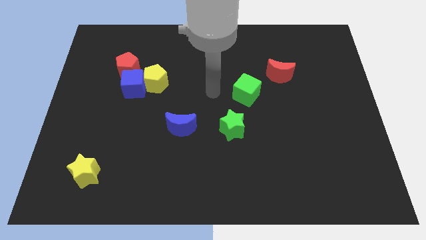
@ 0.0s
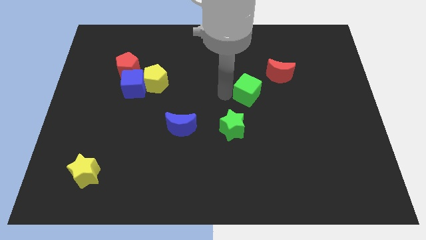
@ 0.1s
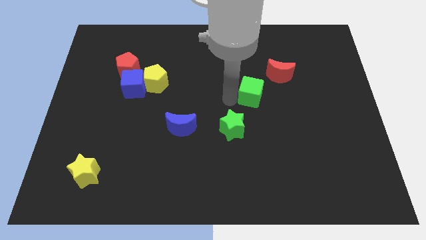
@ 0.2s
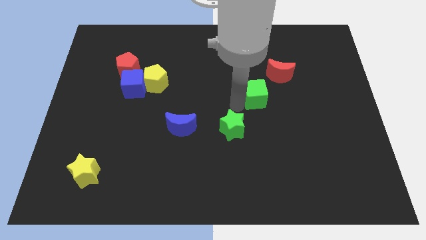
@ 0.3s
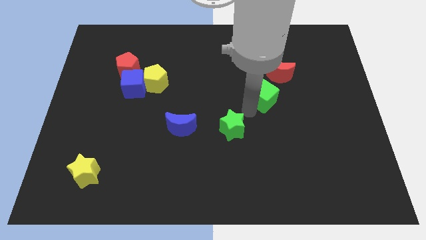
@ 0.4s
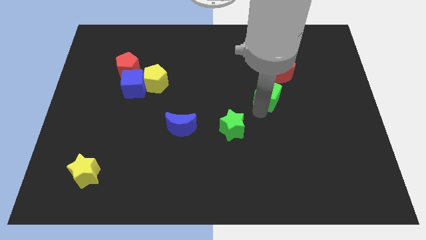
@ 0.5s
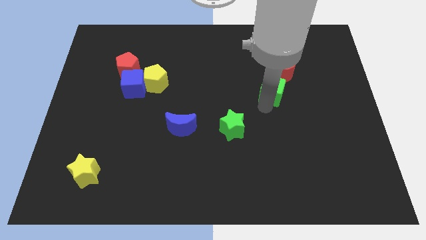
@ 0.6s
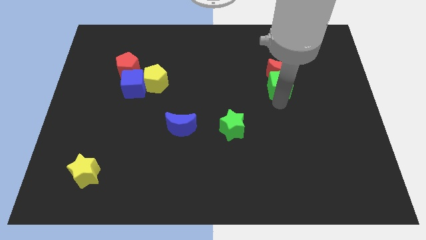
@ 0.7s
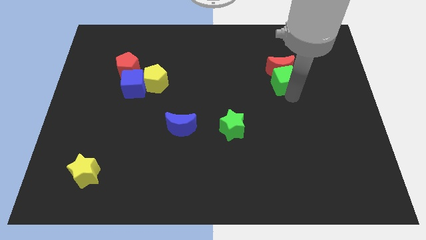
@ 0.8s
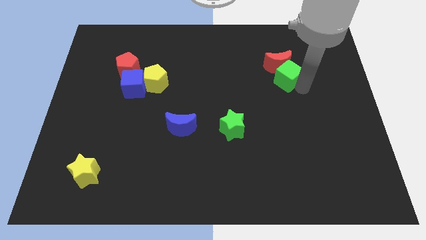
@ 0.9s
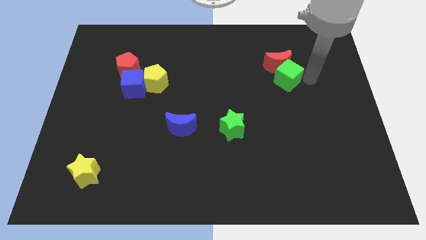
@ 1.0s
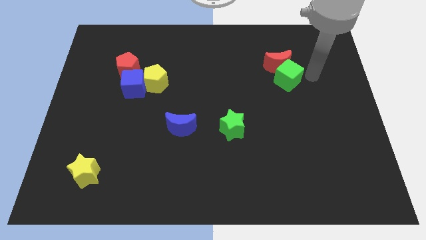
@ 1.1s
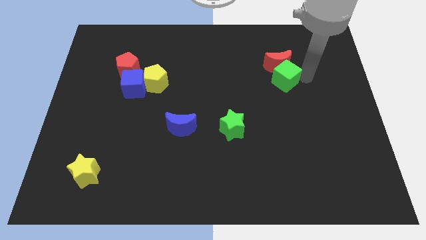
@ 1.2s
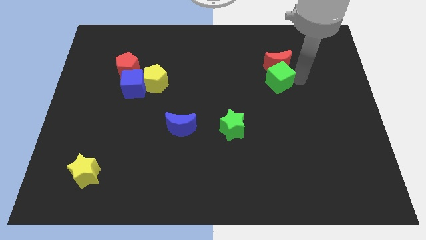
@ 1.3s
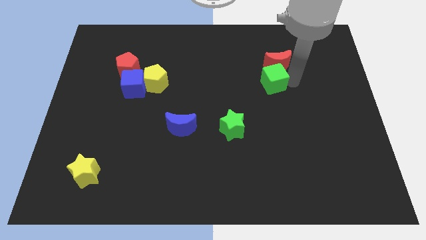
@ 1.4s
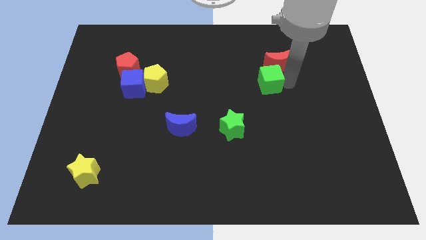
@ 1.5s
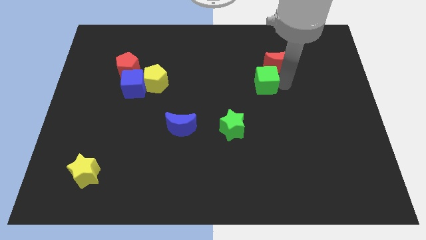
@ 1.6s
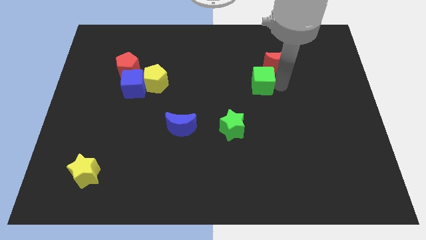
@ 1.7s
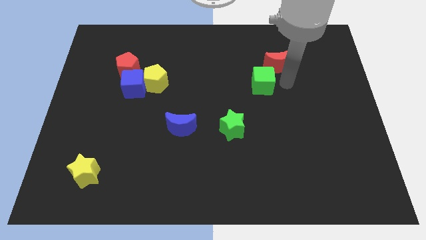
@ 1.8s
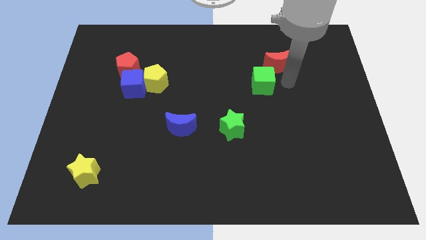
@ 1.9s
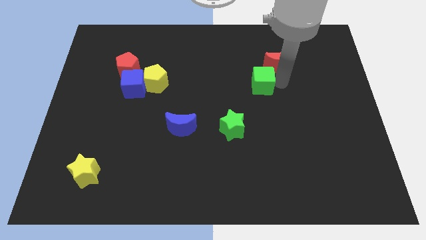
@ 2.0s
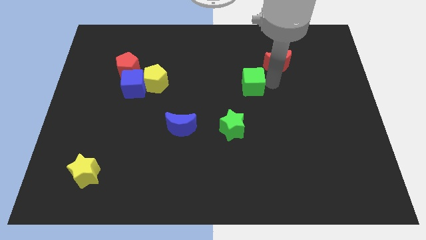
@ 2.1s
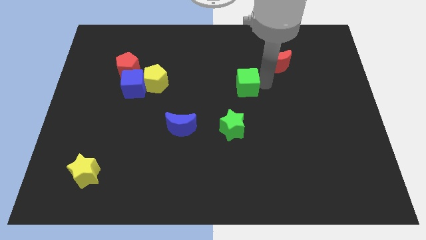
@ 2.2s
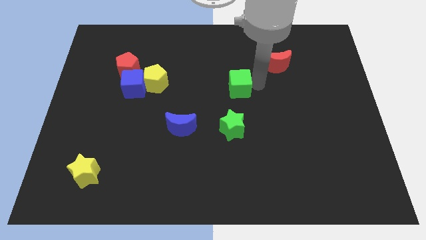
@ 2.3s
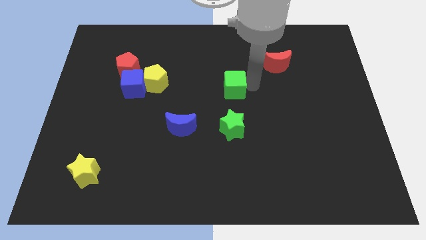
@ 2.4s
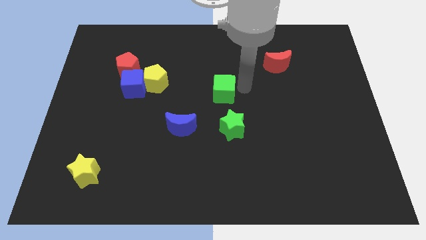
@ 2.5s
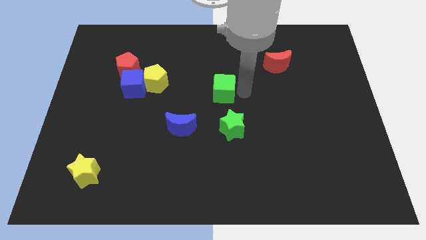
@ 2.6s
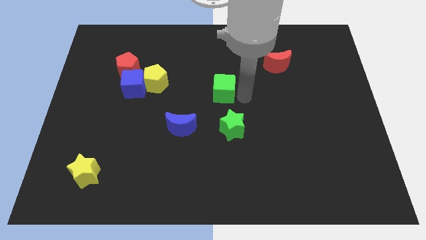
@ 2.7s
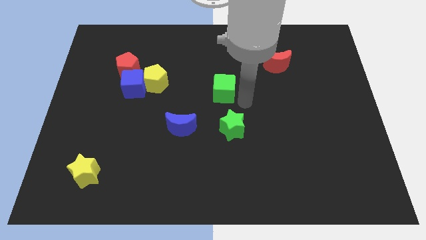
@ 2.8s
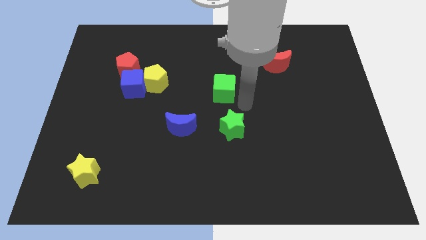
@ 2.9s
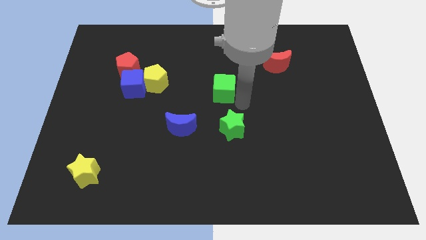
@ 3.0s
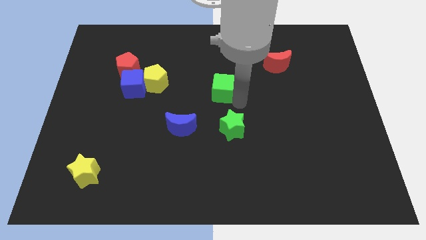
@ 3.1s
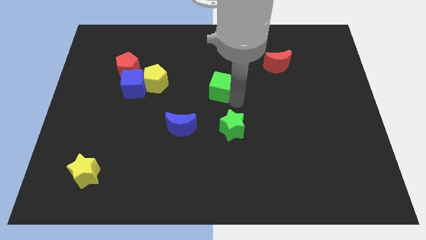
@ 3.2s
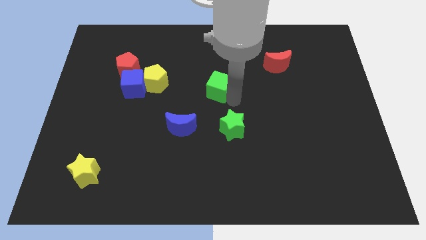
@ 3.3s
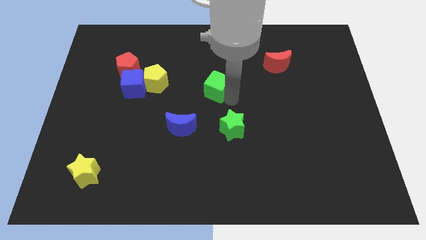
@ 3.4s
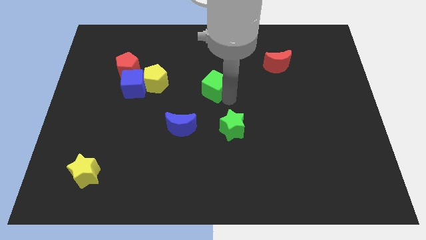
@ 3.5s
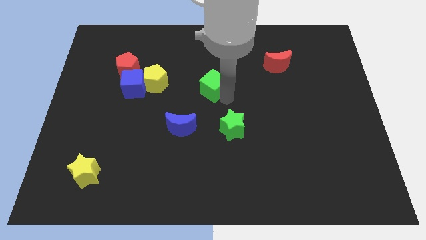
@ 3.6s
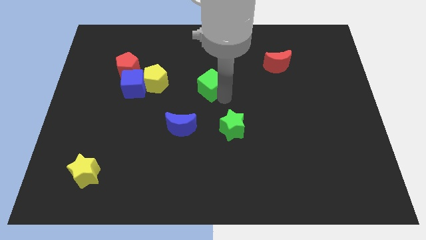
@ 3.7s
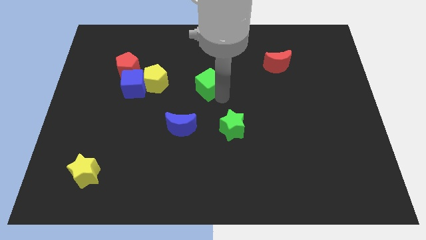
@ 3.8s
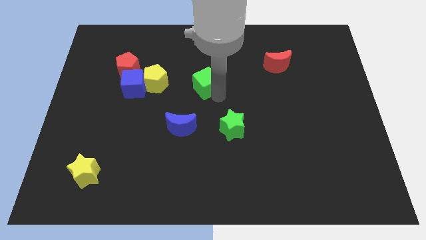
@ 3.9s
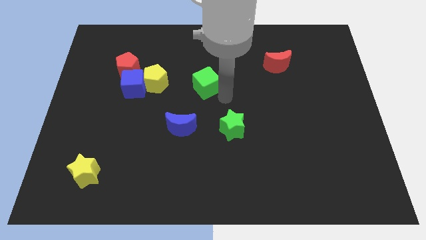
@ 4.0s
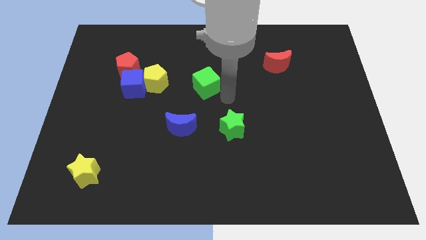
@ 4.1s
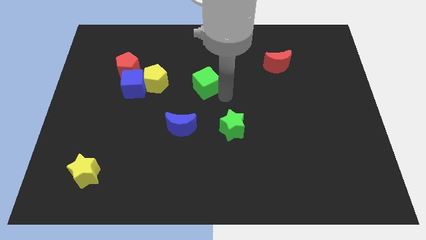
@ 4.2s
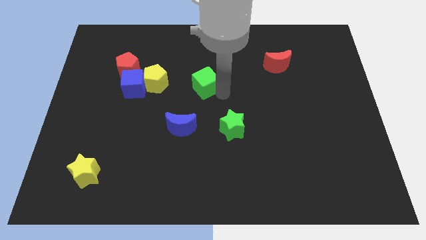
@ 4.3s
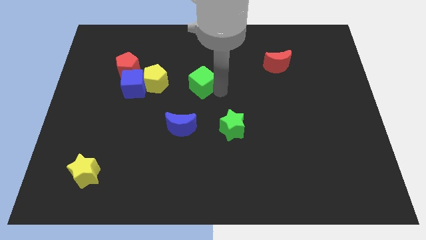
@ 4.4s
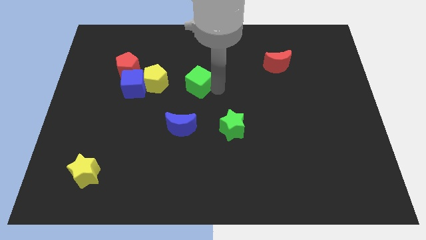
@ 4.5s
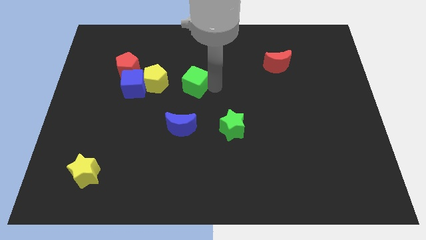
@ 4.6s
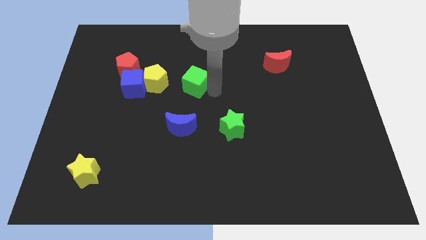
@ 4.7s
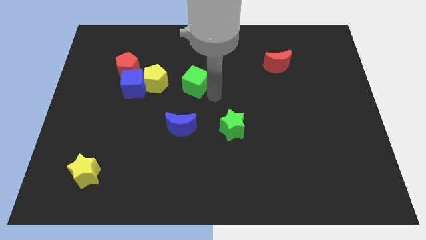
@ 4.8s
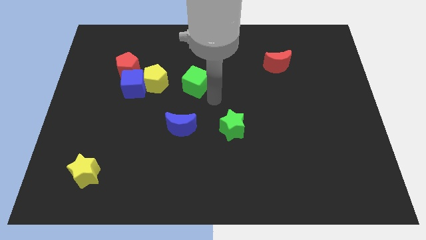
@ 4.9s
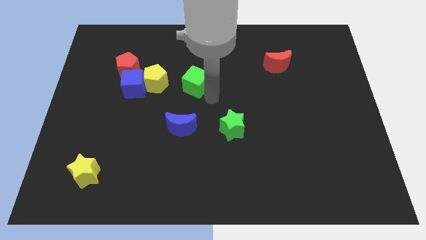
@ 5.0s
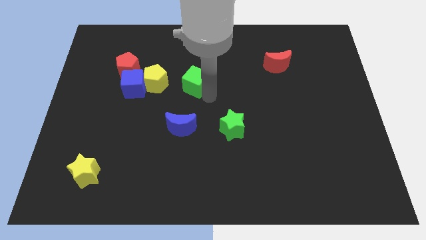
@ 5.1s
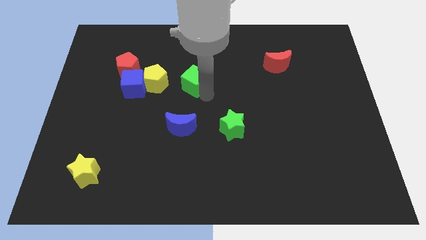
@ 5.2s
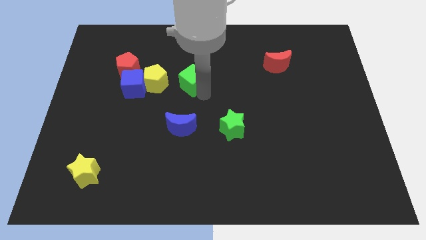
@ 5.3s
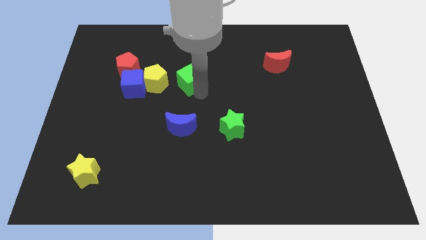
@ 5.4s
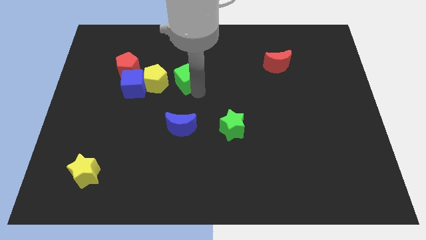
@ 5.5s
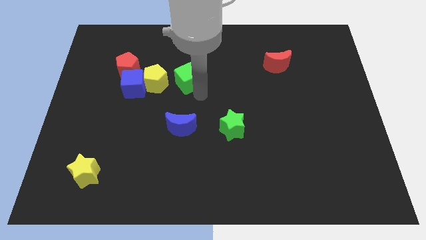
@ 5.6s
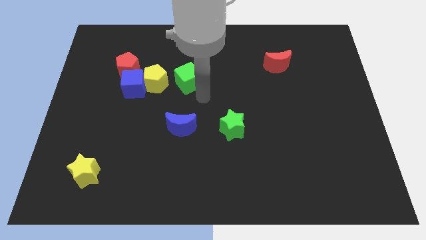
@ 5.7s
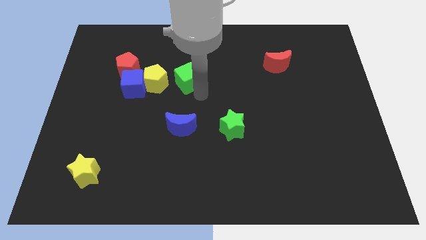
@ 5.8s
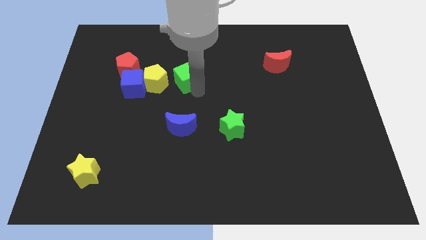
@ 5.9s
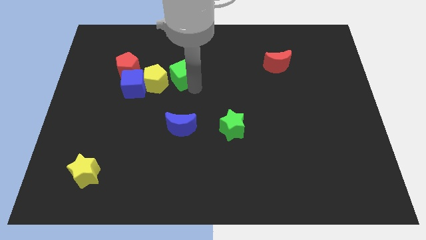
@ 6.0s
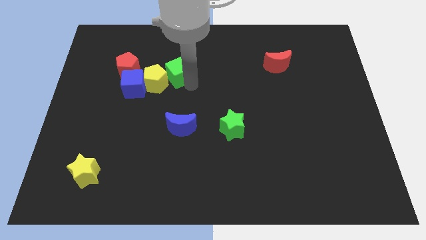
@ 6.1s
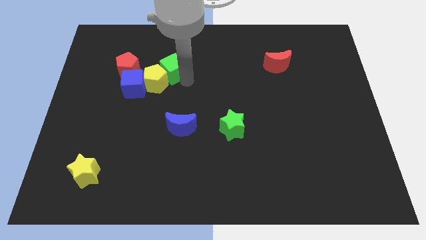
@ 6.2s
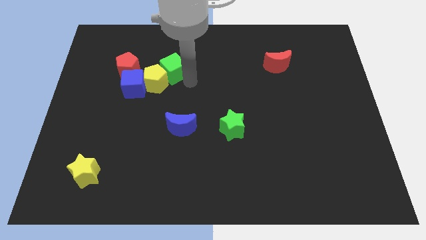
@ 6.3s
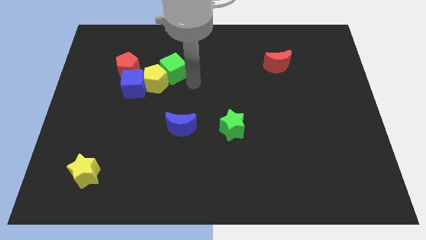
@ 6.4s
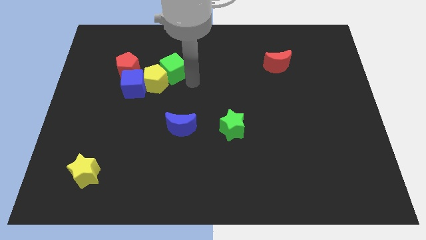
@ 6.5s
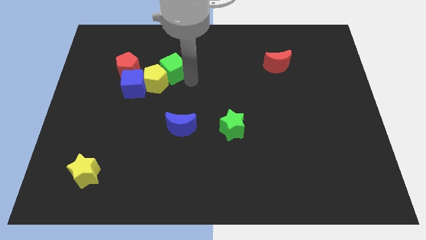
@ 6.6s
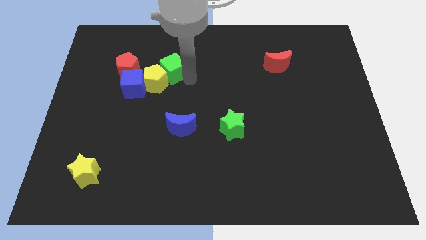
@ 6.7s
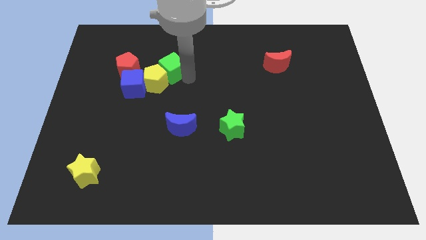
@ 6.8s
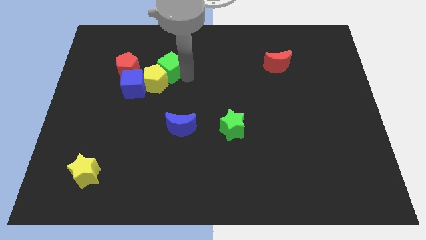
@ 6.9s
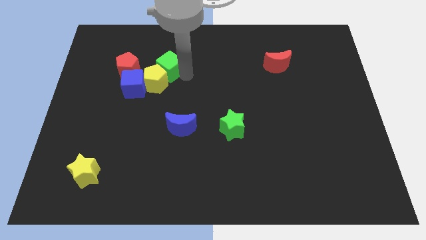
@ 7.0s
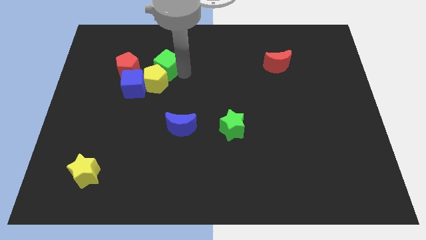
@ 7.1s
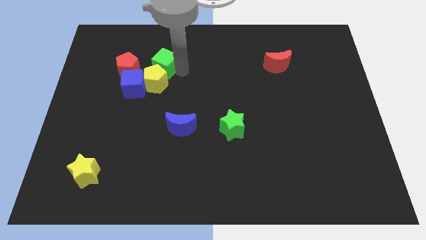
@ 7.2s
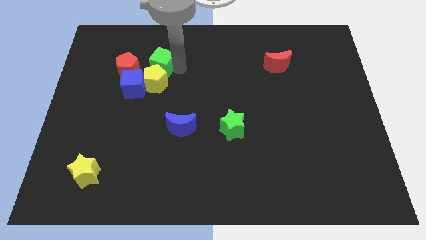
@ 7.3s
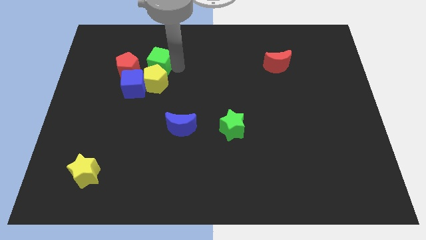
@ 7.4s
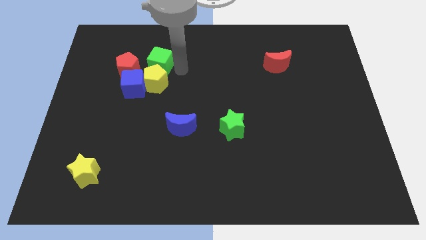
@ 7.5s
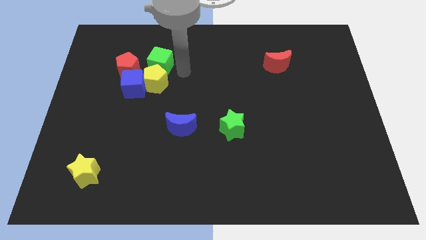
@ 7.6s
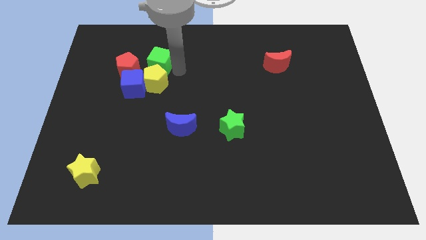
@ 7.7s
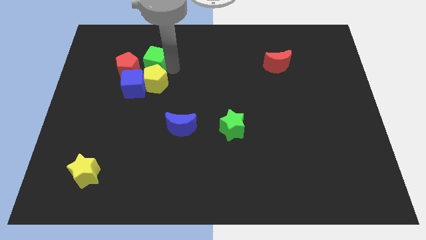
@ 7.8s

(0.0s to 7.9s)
push the green cube to the top side of the blue cube

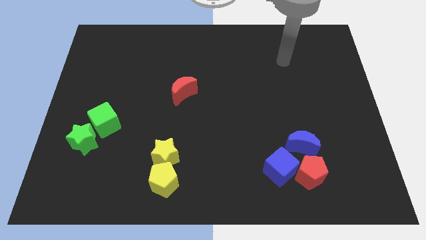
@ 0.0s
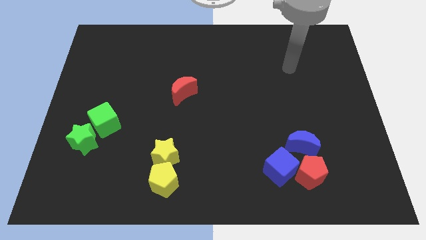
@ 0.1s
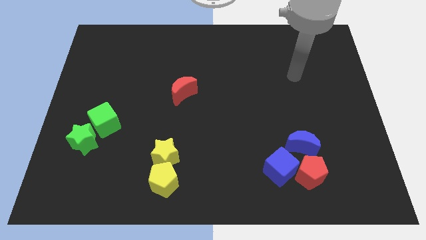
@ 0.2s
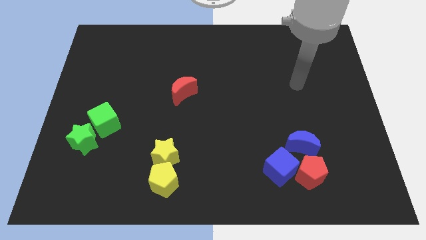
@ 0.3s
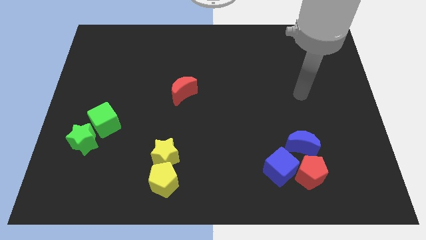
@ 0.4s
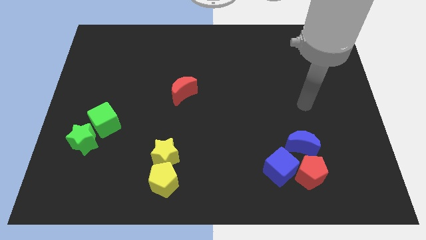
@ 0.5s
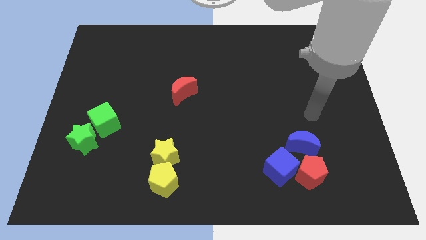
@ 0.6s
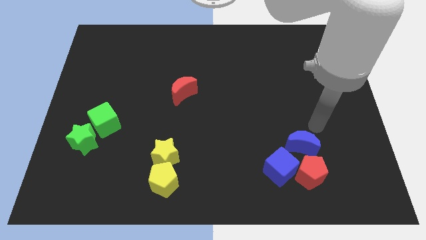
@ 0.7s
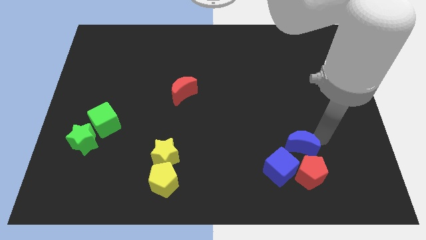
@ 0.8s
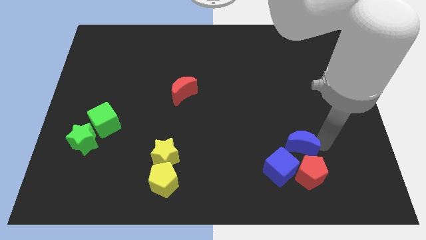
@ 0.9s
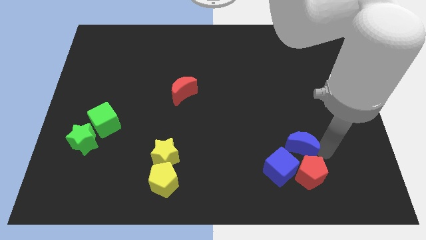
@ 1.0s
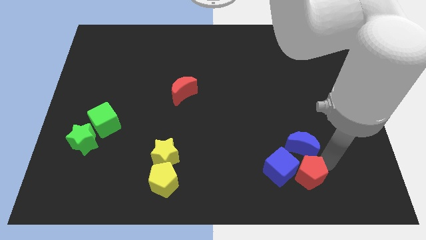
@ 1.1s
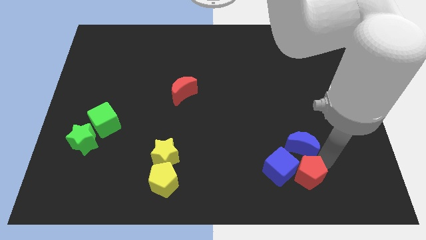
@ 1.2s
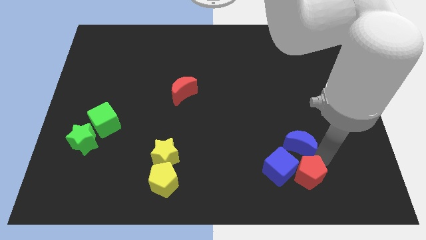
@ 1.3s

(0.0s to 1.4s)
push the blue moon above the blue cube
